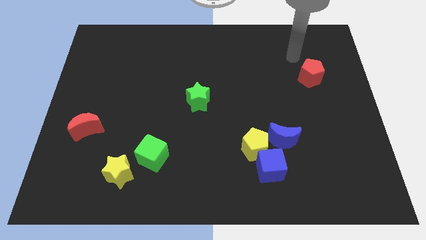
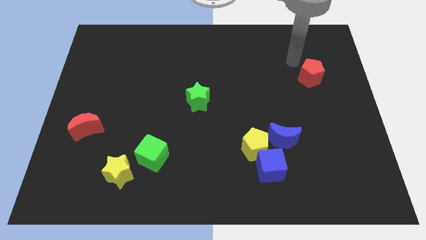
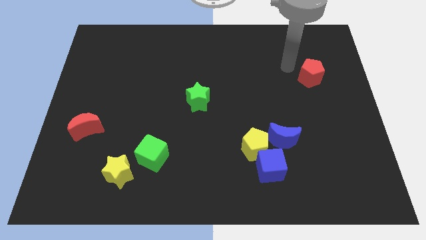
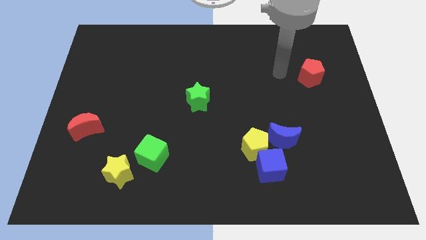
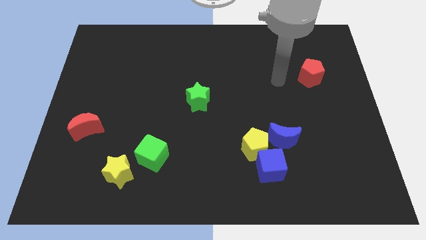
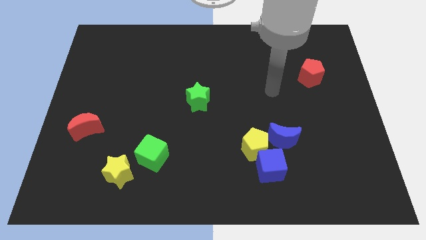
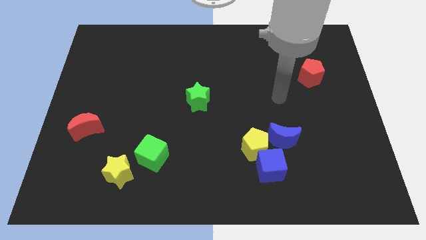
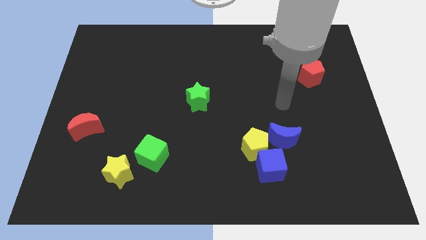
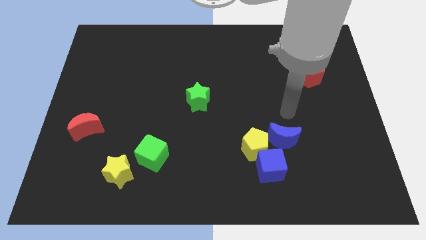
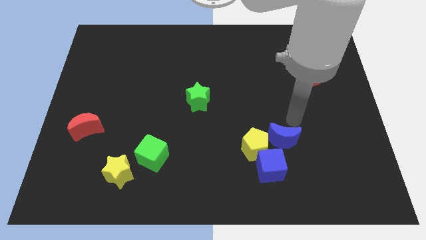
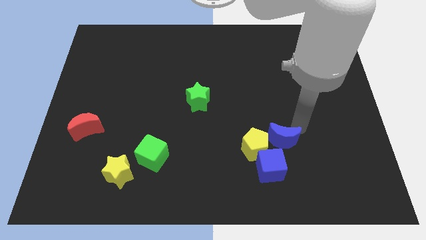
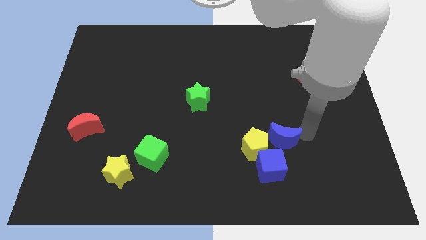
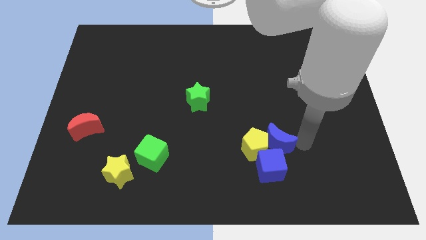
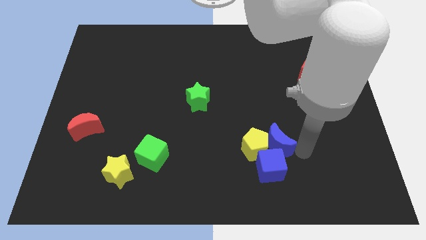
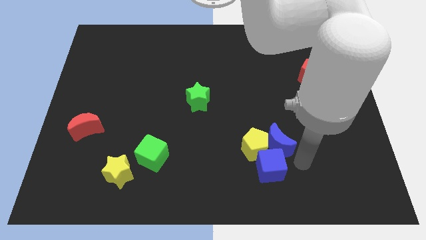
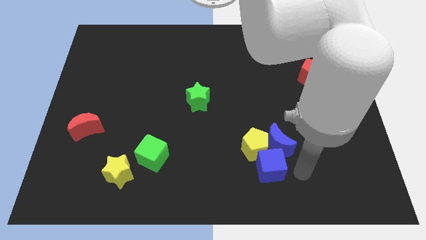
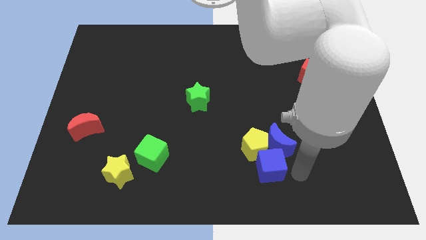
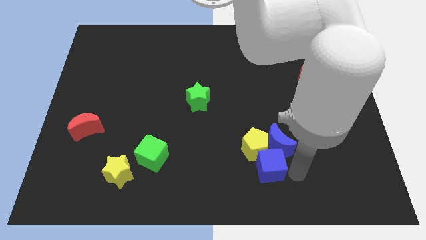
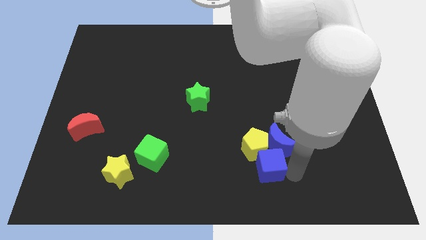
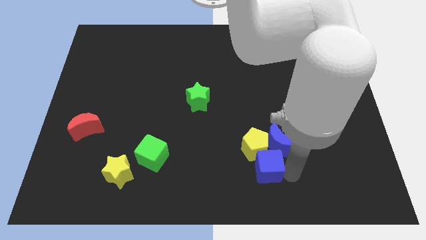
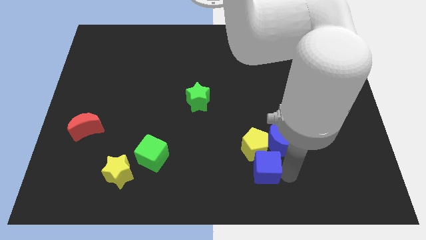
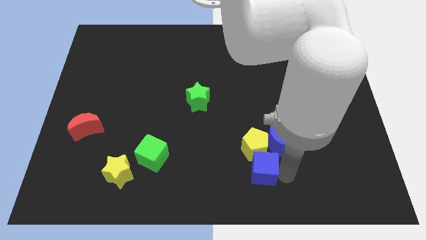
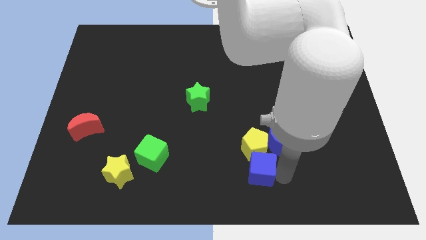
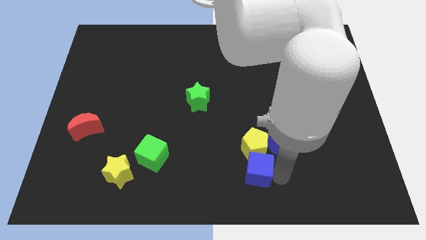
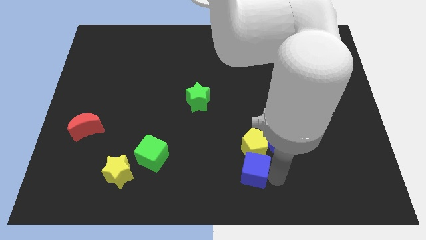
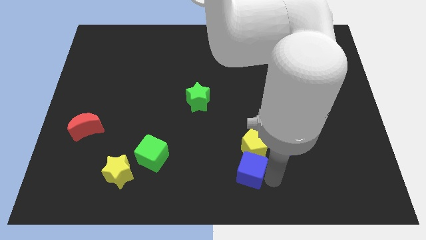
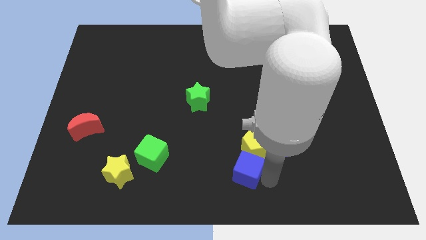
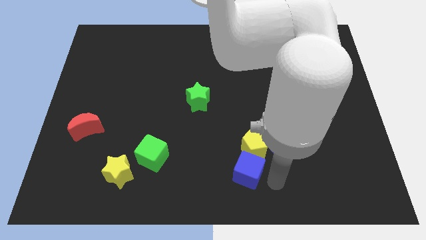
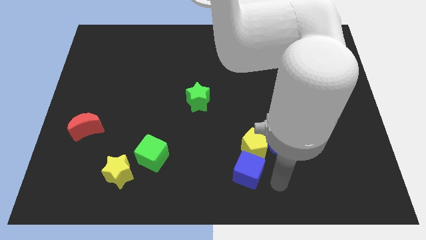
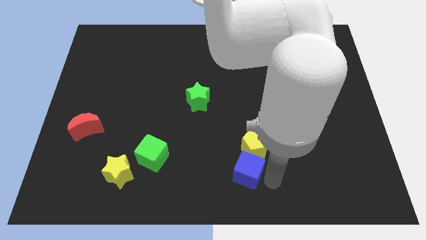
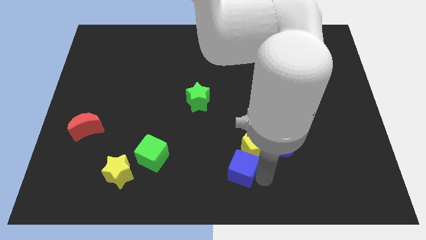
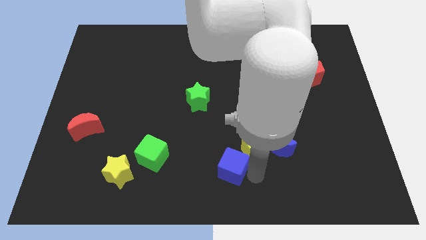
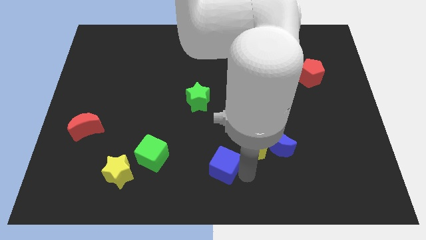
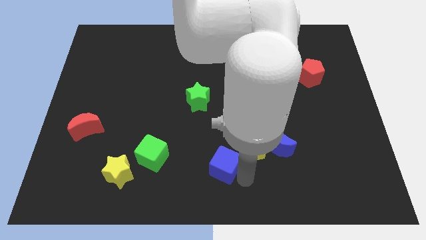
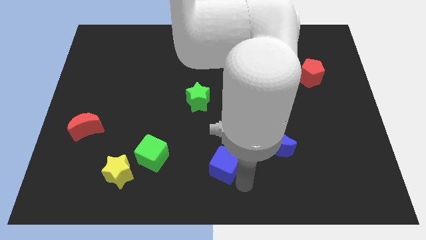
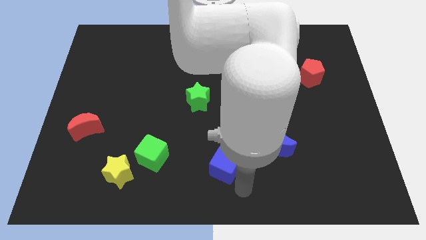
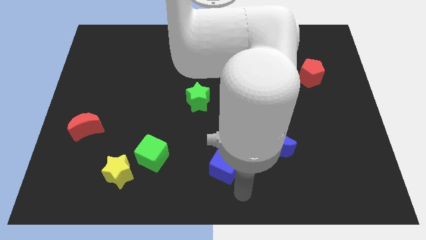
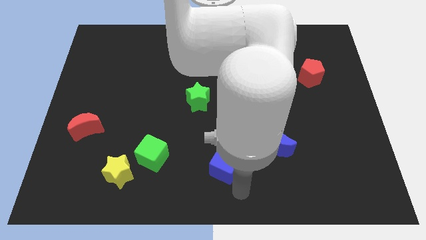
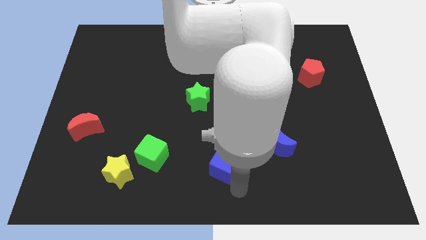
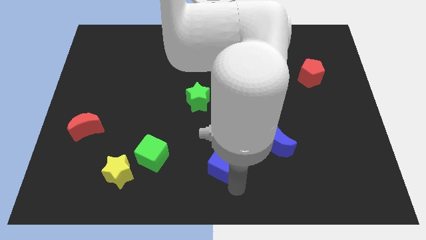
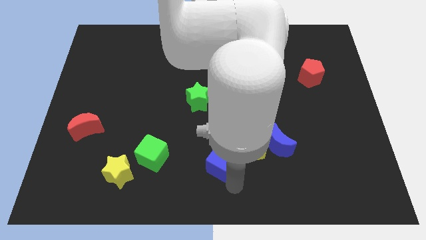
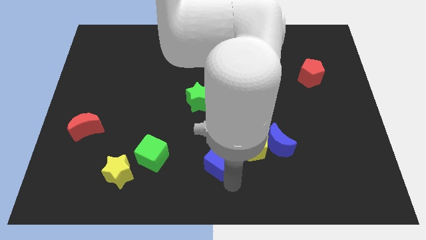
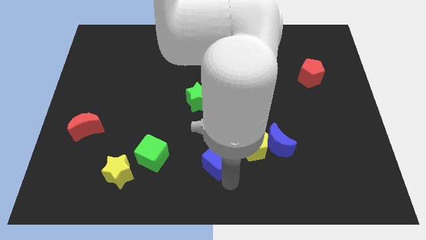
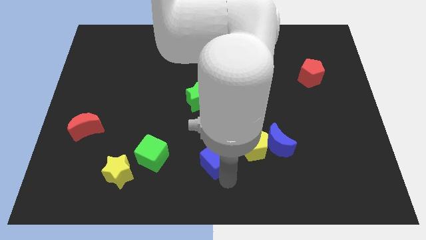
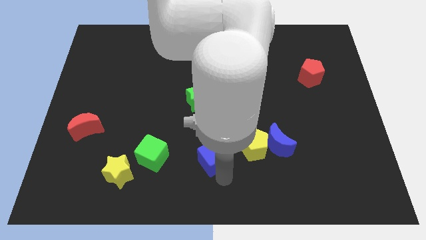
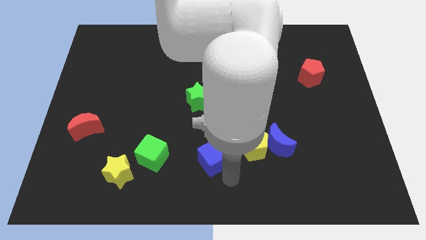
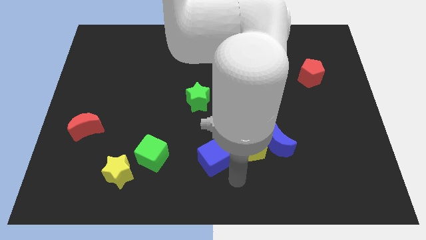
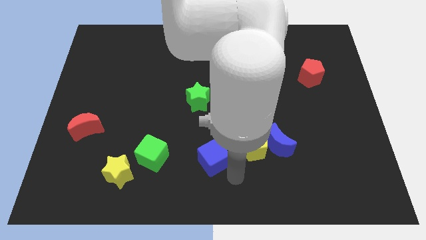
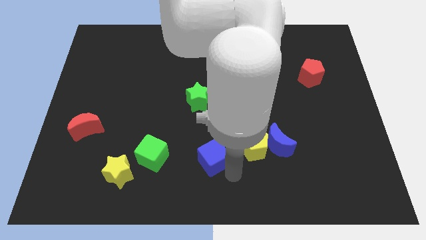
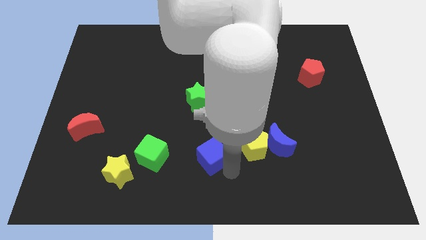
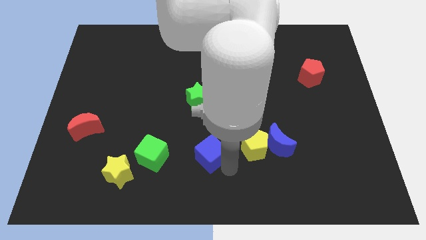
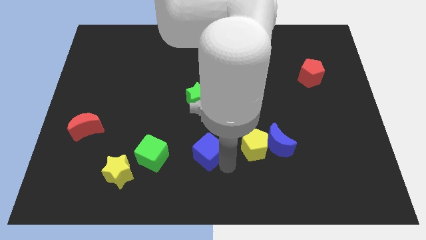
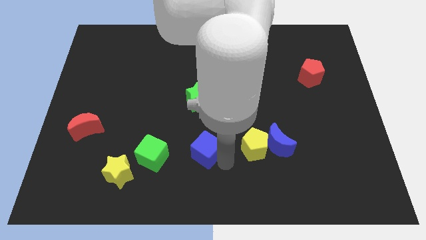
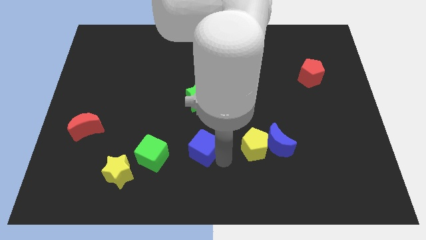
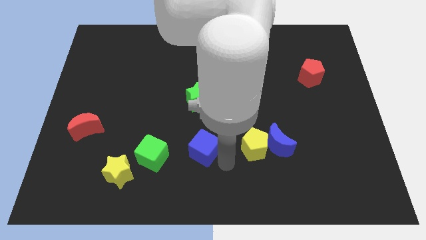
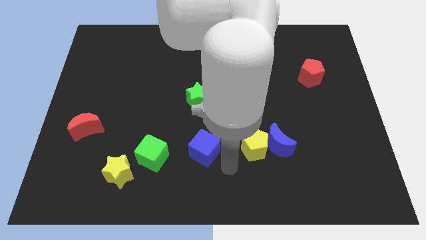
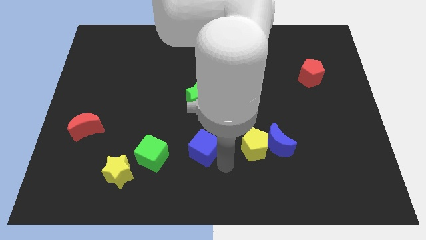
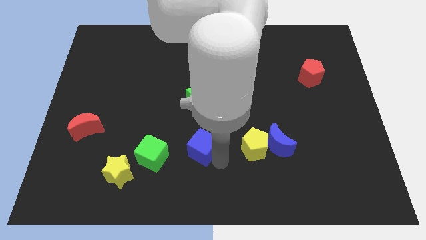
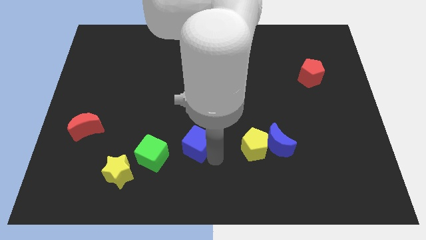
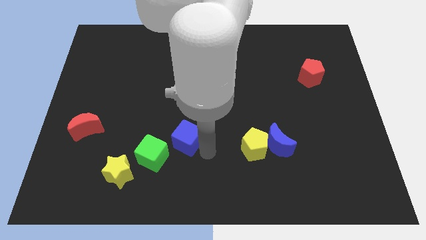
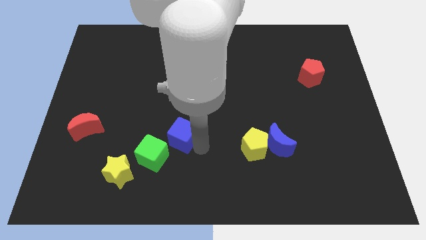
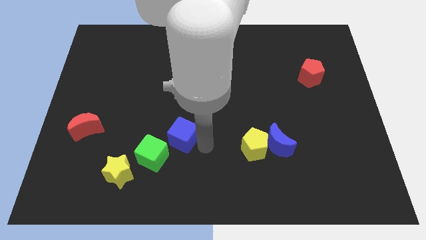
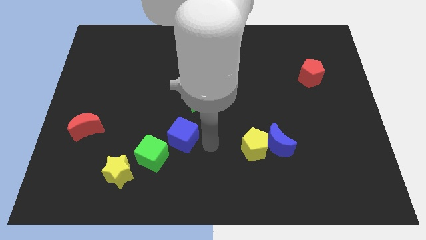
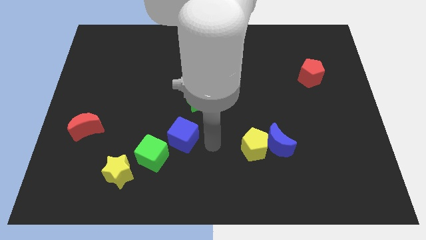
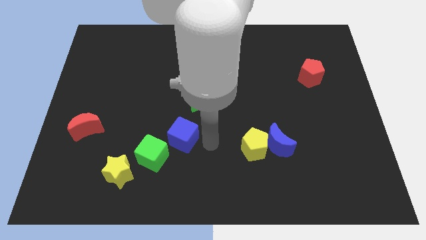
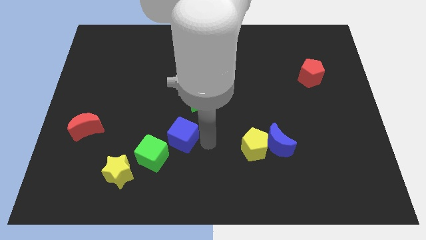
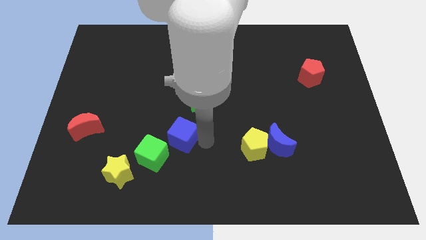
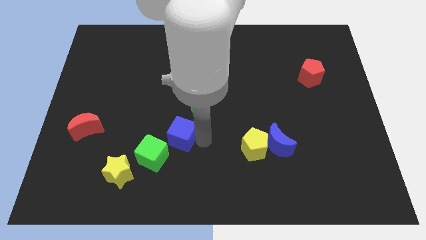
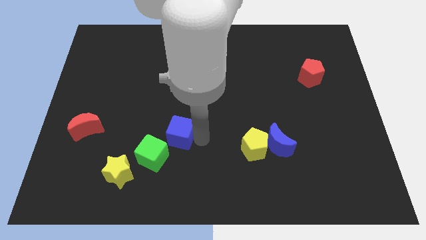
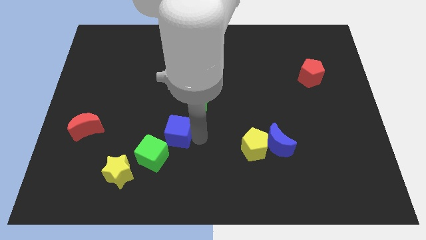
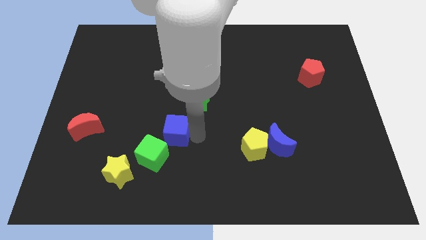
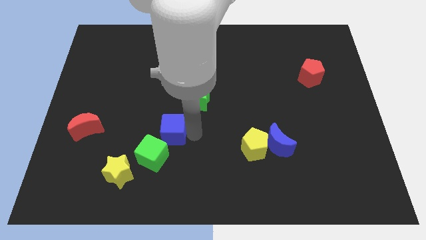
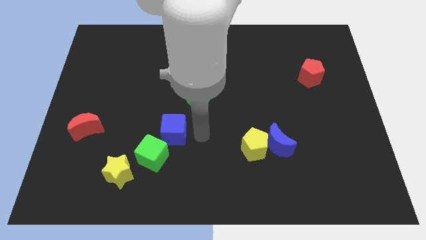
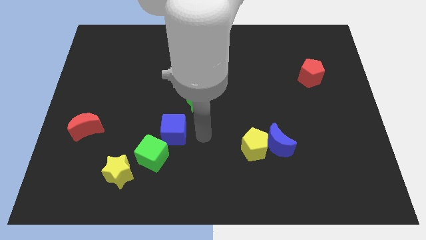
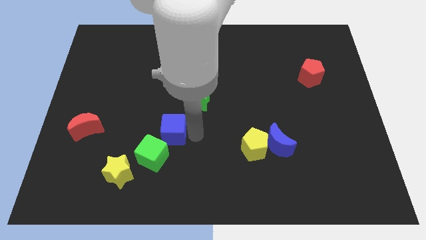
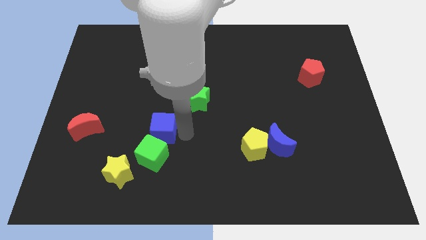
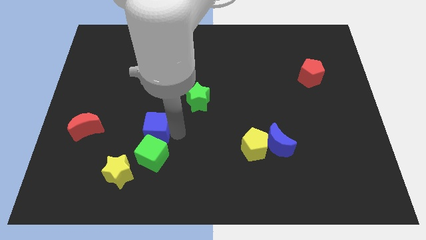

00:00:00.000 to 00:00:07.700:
move the blue cube right of the red moon
